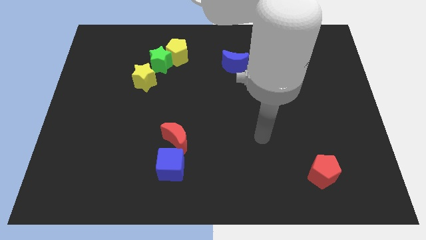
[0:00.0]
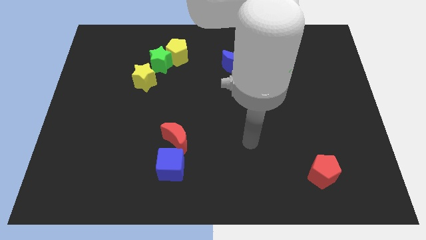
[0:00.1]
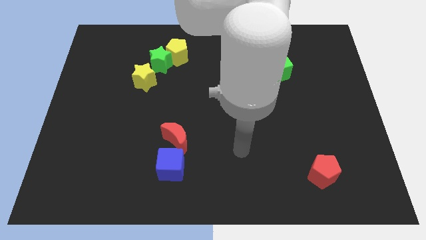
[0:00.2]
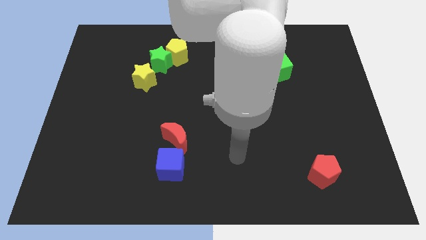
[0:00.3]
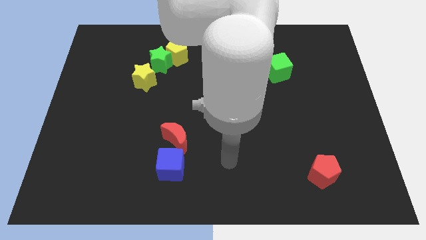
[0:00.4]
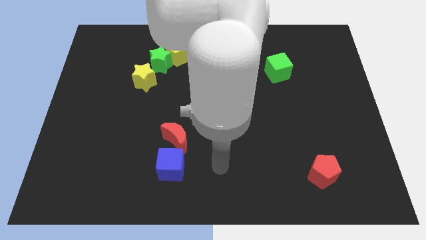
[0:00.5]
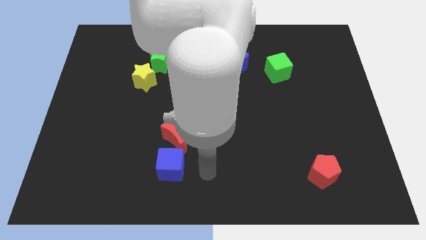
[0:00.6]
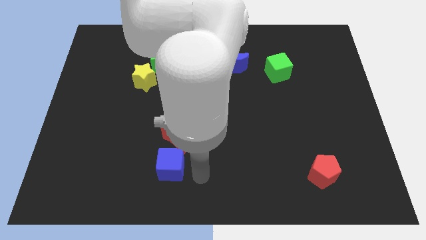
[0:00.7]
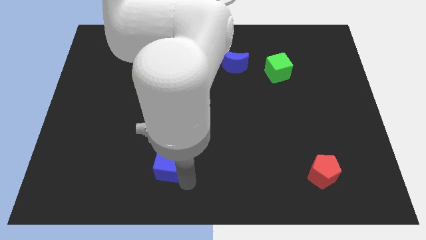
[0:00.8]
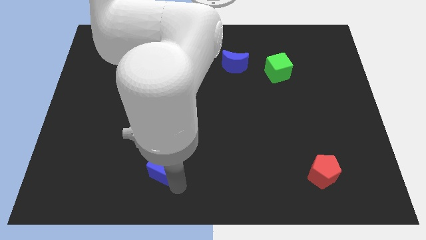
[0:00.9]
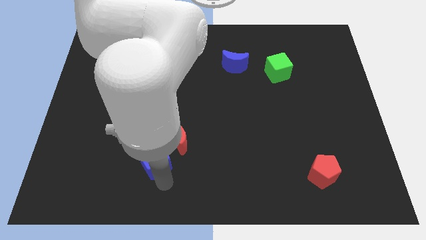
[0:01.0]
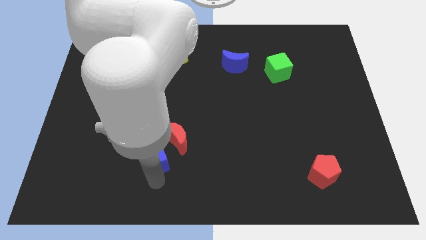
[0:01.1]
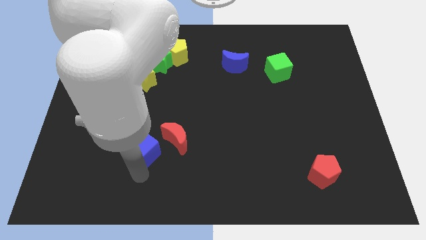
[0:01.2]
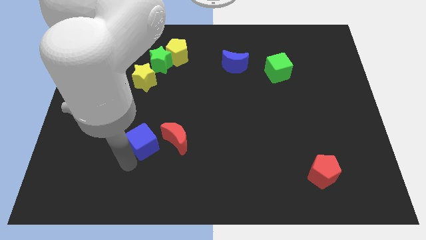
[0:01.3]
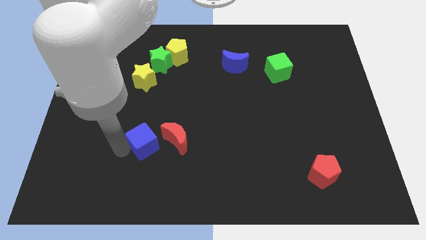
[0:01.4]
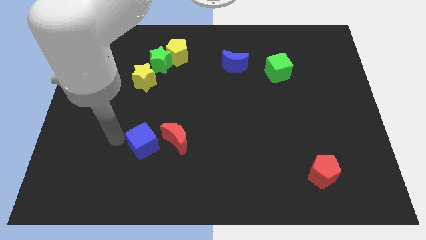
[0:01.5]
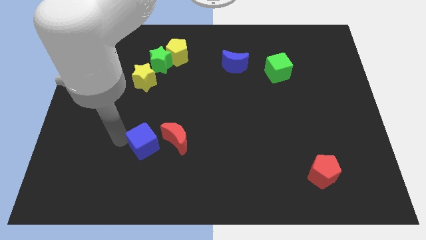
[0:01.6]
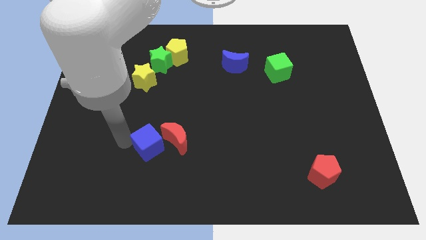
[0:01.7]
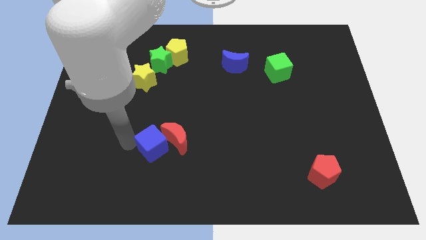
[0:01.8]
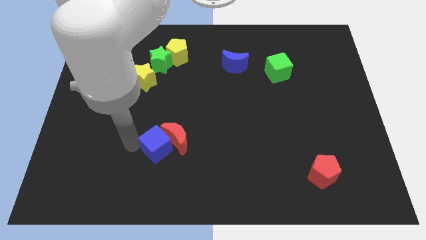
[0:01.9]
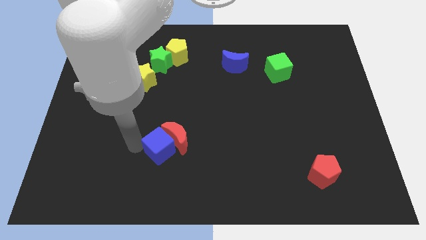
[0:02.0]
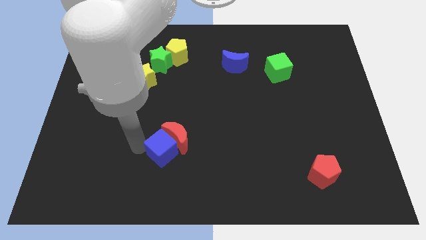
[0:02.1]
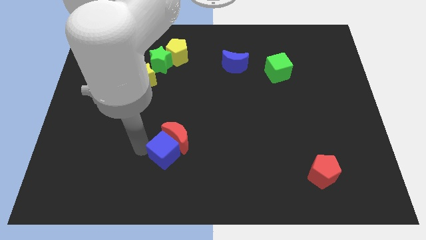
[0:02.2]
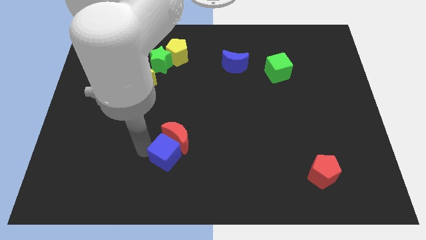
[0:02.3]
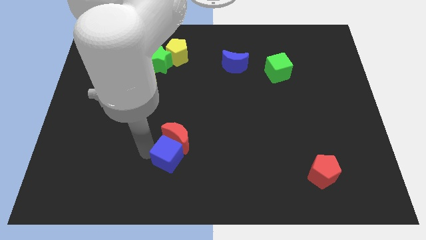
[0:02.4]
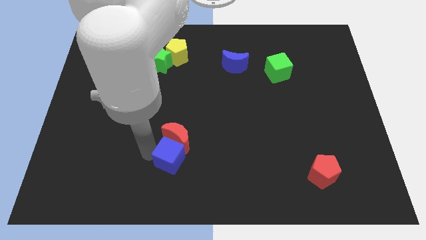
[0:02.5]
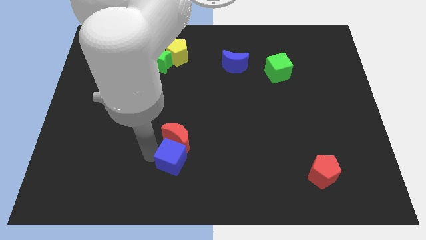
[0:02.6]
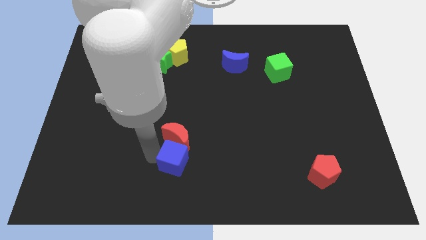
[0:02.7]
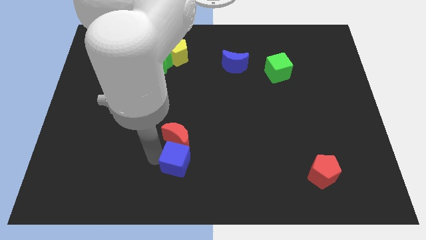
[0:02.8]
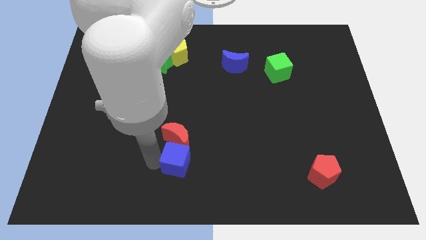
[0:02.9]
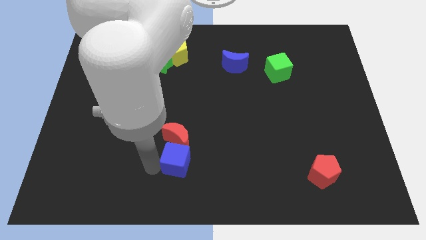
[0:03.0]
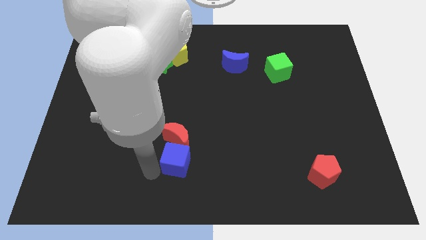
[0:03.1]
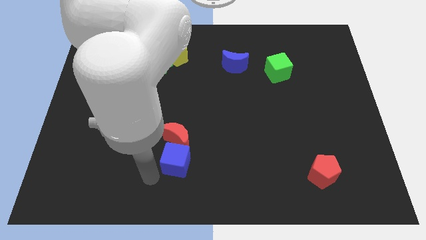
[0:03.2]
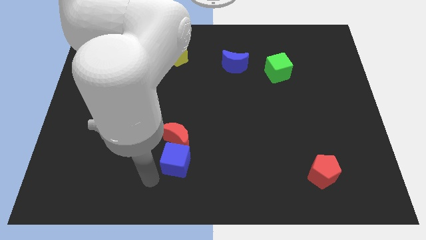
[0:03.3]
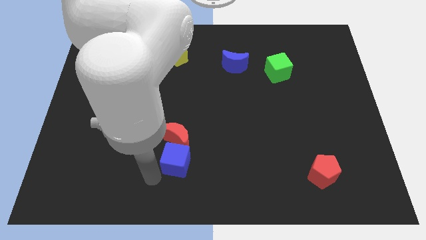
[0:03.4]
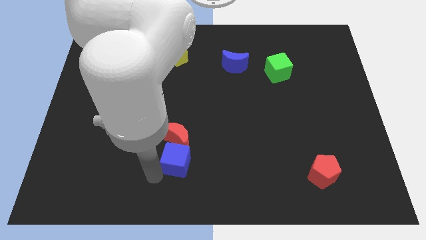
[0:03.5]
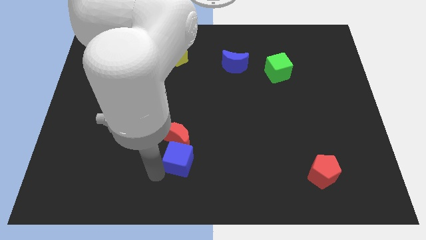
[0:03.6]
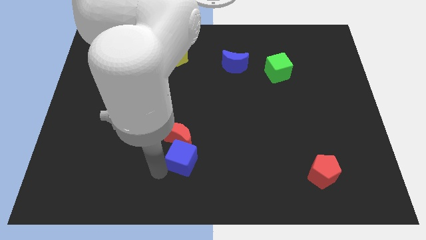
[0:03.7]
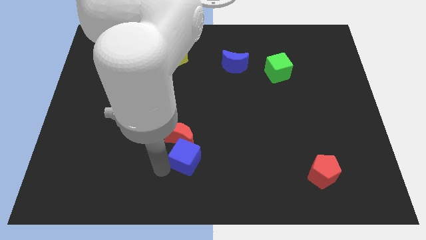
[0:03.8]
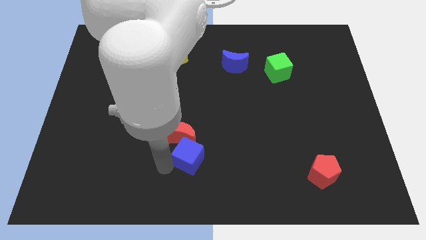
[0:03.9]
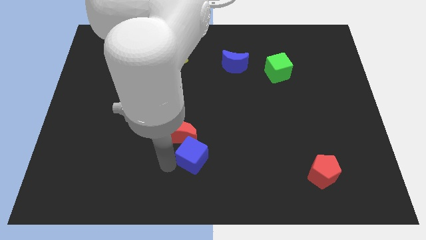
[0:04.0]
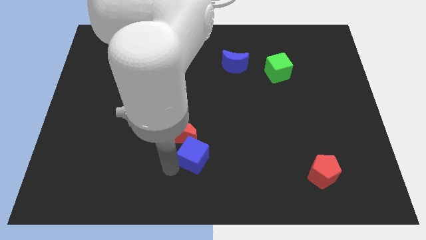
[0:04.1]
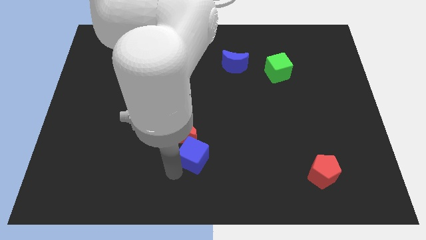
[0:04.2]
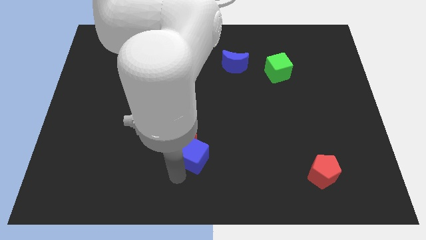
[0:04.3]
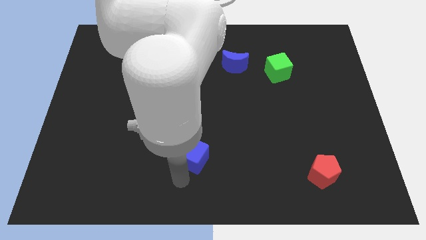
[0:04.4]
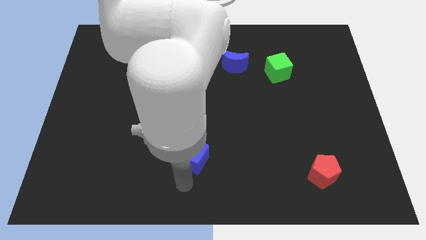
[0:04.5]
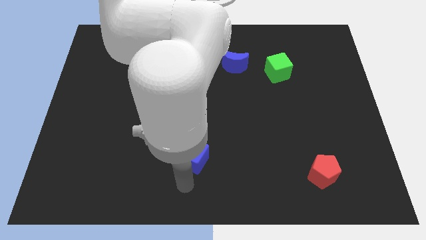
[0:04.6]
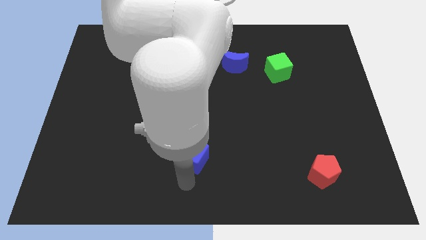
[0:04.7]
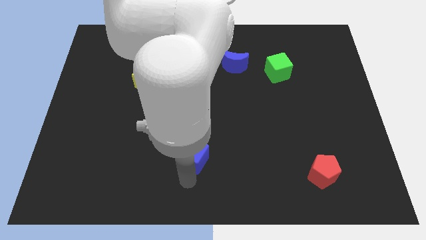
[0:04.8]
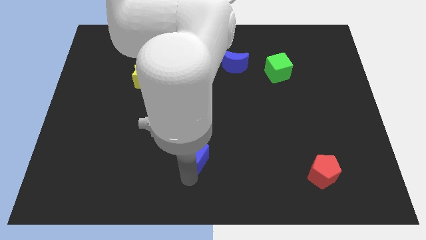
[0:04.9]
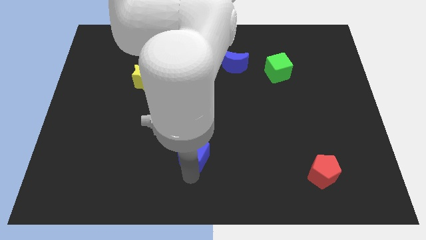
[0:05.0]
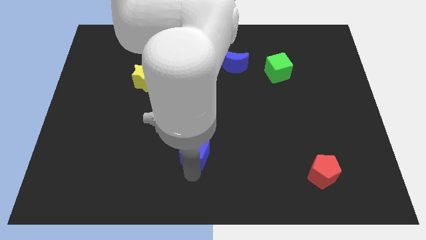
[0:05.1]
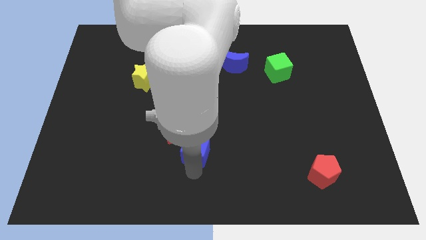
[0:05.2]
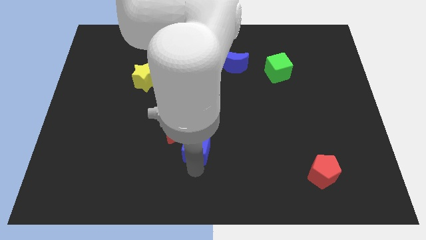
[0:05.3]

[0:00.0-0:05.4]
put the blue cube just right of the red moon

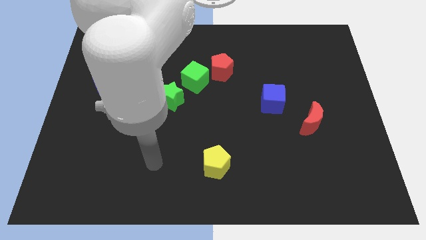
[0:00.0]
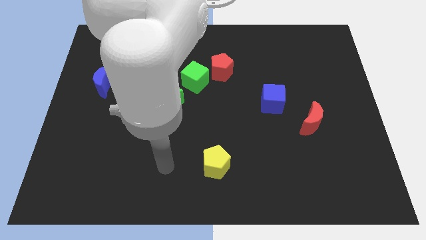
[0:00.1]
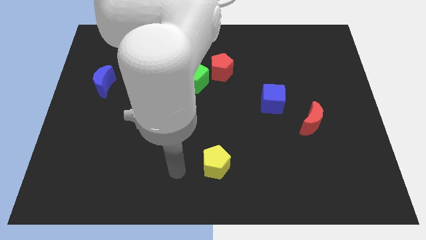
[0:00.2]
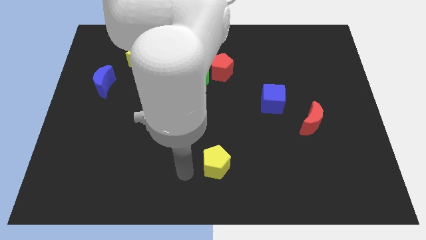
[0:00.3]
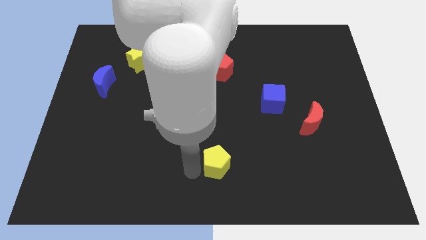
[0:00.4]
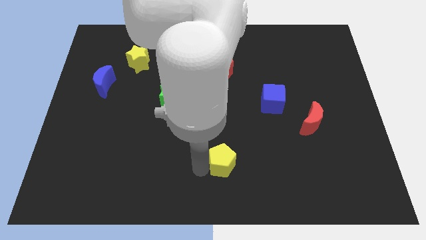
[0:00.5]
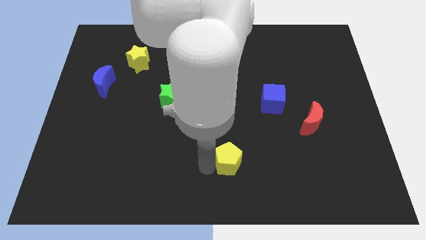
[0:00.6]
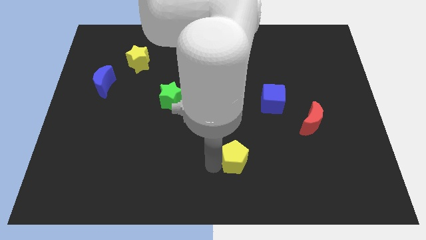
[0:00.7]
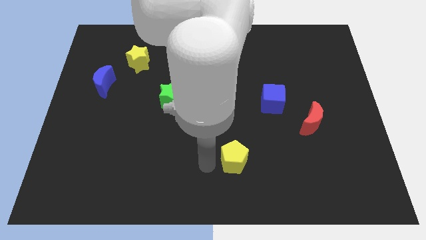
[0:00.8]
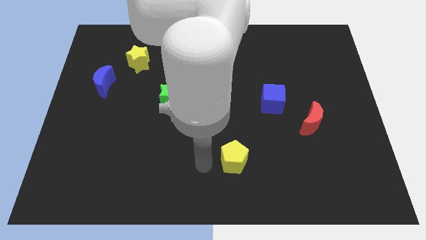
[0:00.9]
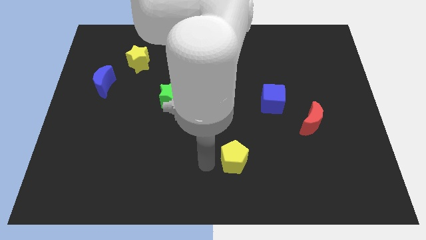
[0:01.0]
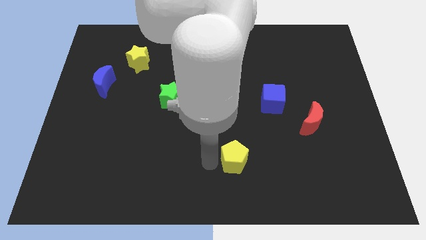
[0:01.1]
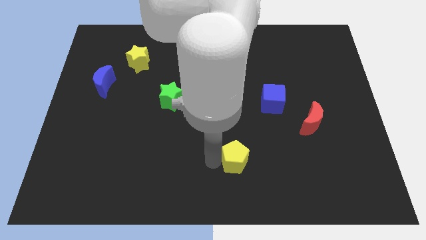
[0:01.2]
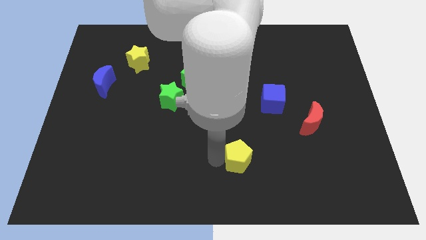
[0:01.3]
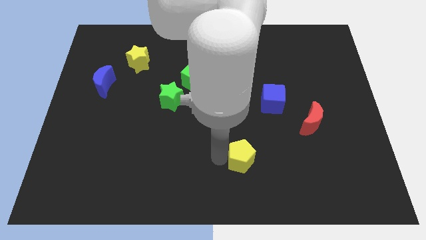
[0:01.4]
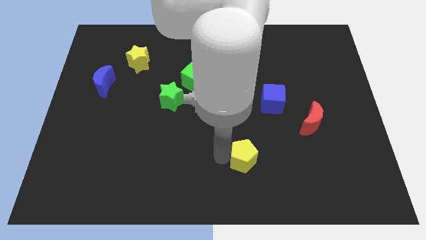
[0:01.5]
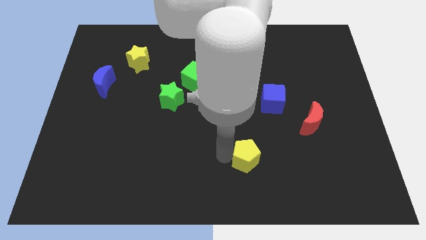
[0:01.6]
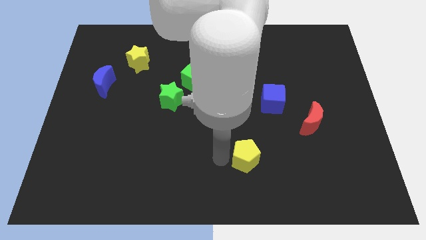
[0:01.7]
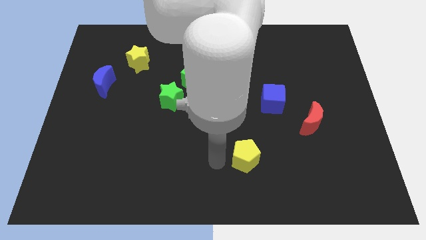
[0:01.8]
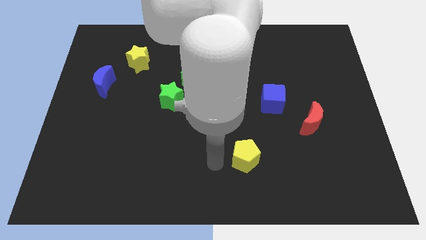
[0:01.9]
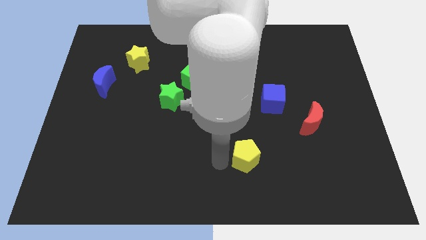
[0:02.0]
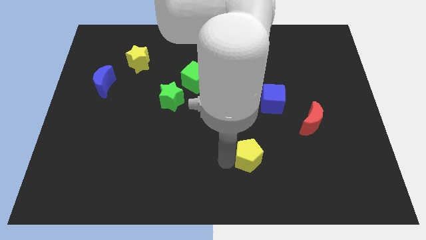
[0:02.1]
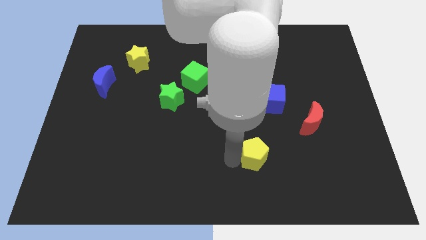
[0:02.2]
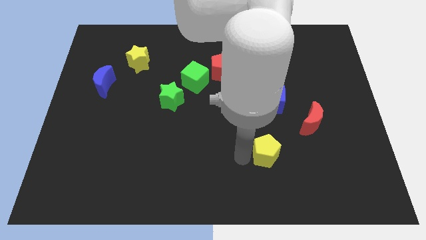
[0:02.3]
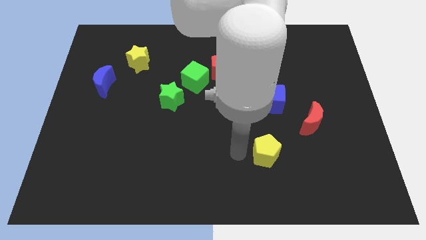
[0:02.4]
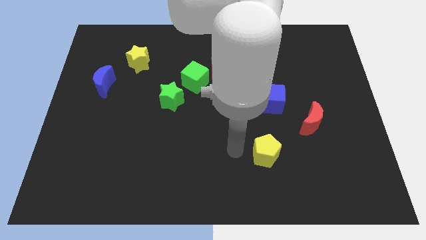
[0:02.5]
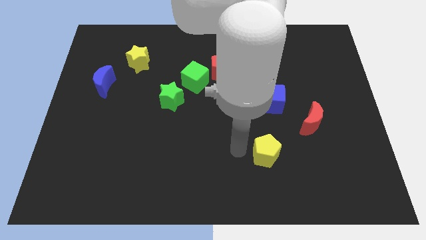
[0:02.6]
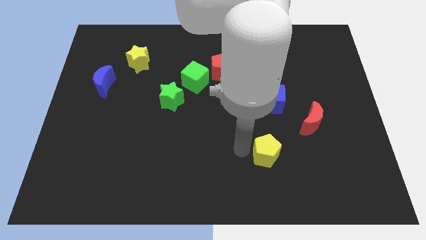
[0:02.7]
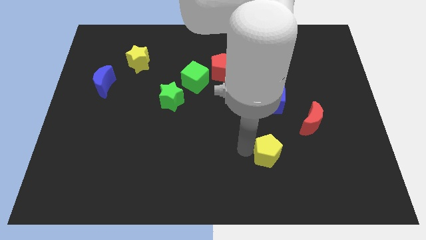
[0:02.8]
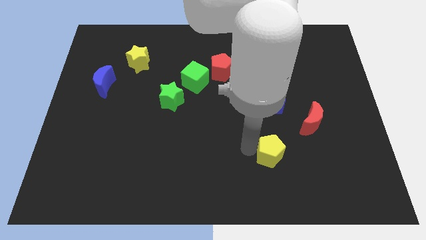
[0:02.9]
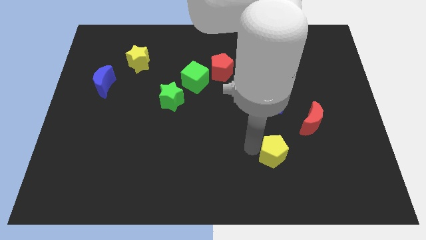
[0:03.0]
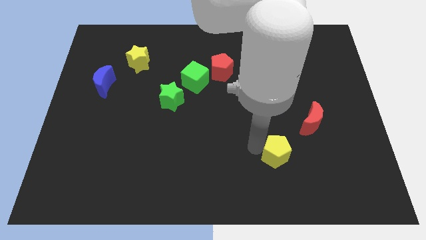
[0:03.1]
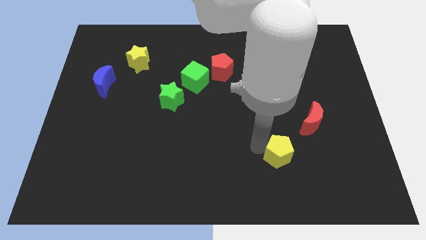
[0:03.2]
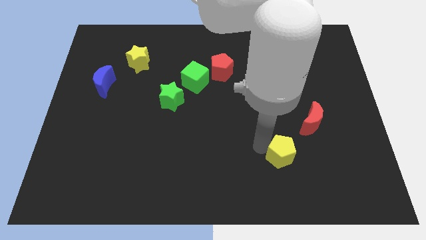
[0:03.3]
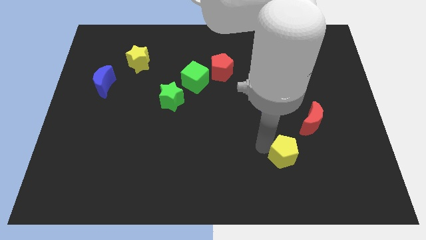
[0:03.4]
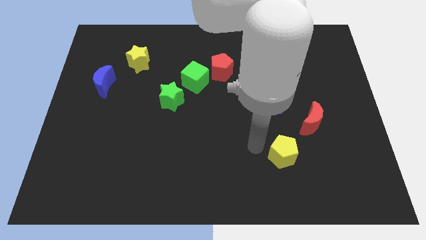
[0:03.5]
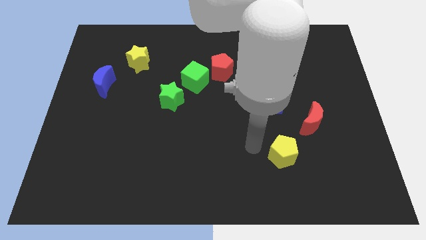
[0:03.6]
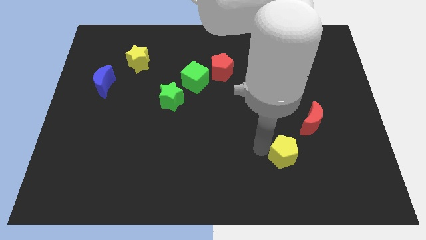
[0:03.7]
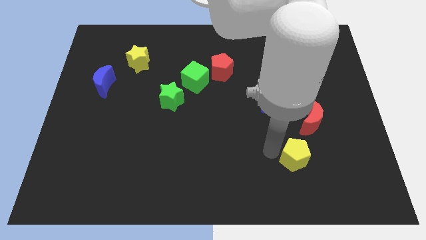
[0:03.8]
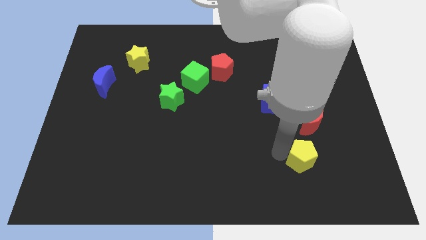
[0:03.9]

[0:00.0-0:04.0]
move the yellow pentagon to the bottom of the red moon
